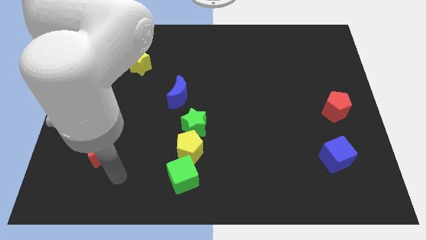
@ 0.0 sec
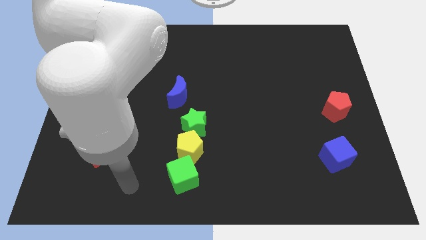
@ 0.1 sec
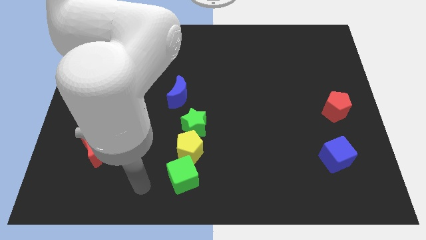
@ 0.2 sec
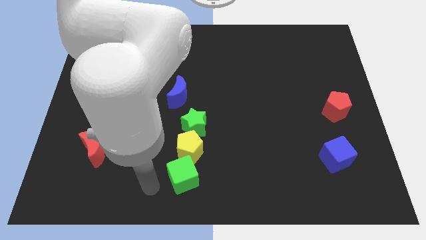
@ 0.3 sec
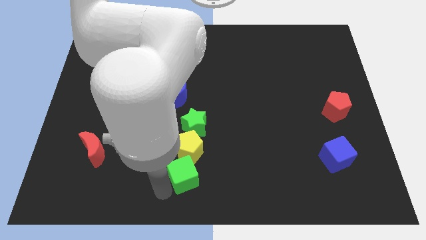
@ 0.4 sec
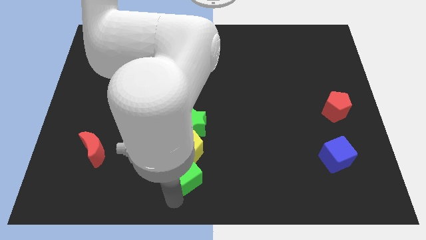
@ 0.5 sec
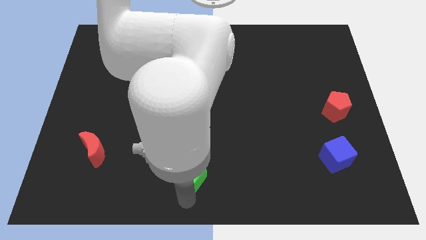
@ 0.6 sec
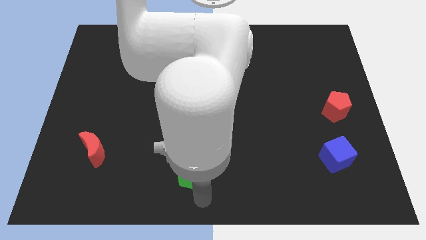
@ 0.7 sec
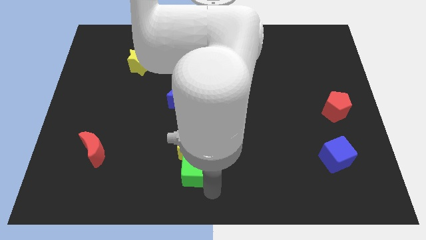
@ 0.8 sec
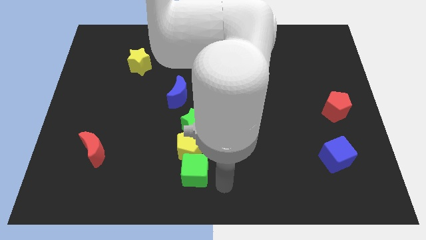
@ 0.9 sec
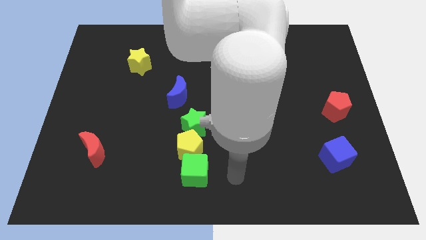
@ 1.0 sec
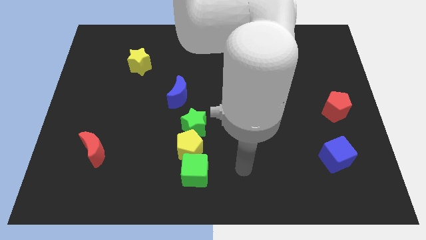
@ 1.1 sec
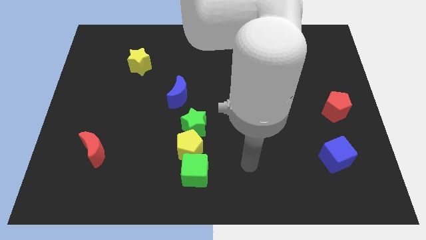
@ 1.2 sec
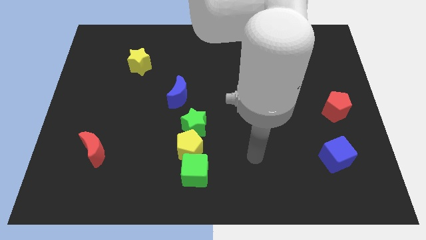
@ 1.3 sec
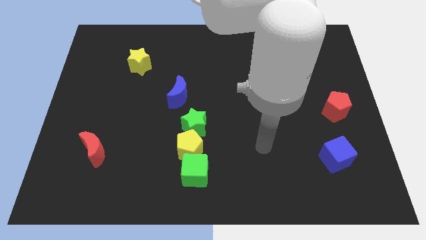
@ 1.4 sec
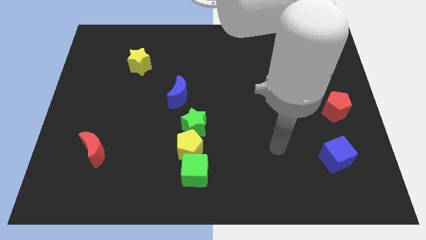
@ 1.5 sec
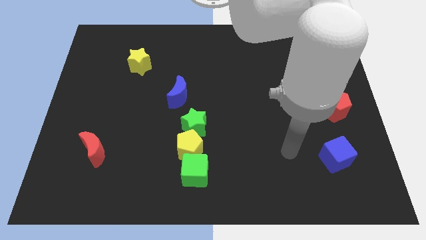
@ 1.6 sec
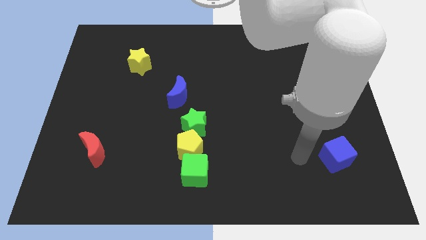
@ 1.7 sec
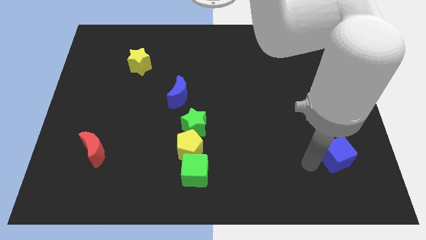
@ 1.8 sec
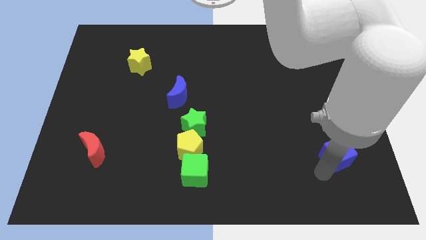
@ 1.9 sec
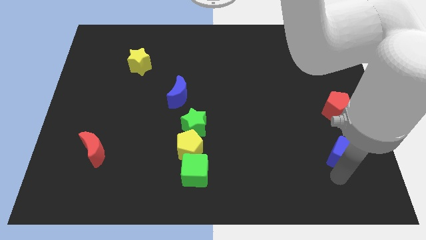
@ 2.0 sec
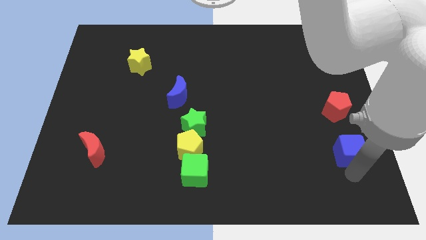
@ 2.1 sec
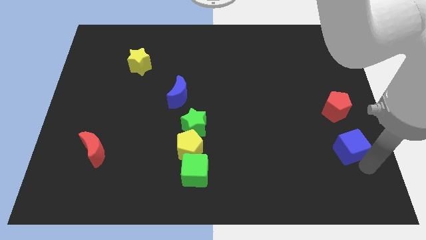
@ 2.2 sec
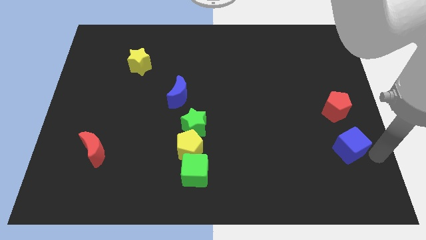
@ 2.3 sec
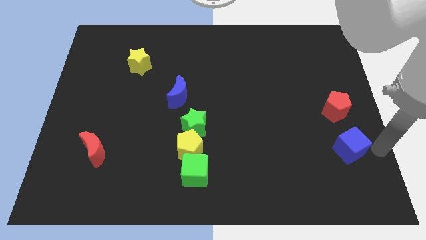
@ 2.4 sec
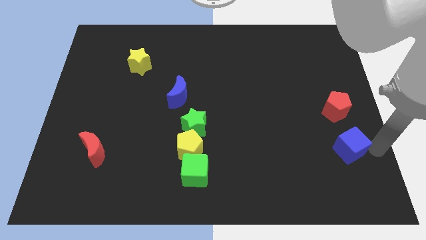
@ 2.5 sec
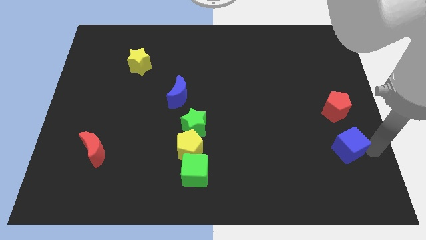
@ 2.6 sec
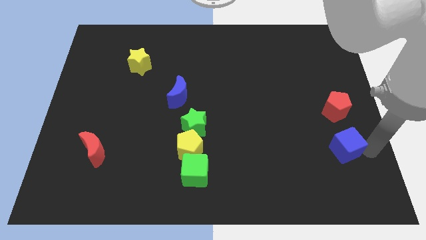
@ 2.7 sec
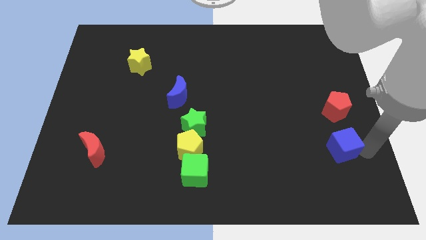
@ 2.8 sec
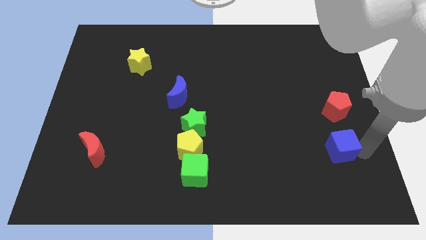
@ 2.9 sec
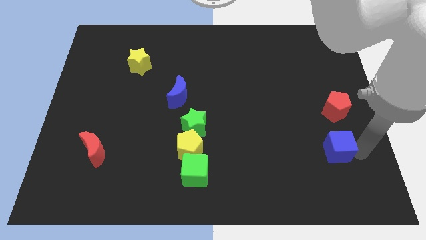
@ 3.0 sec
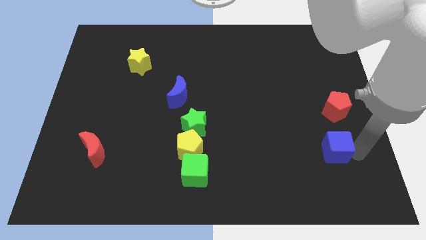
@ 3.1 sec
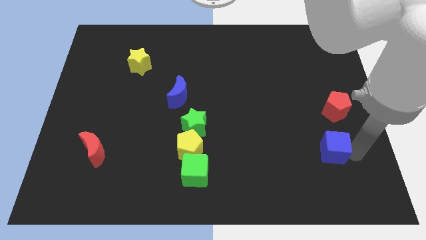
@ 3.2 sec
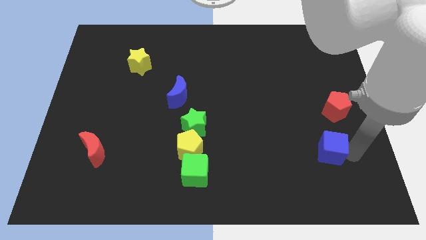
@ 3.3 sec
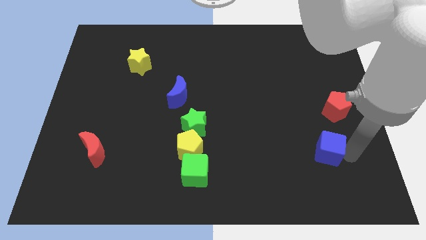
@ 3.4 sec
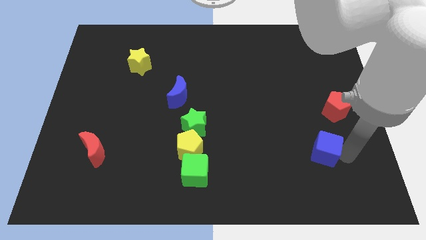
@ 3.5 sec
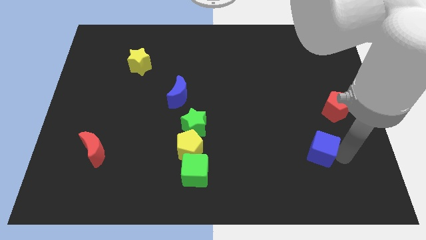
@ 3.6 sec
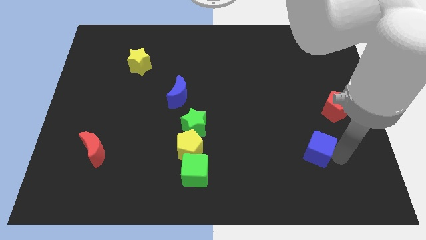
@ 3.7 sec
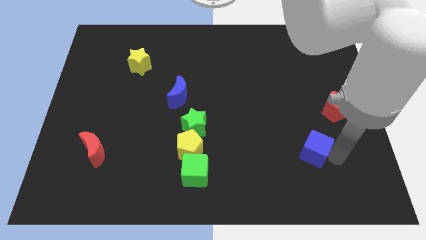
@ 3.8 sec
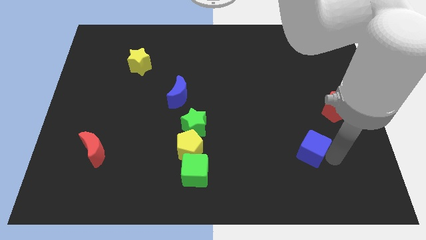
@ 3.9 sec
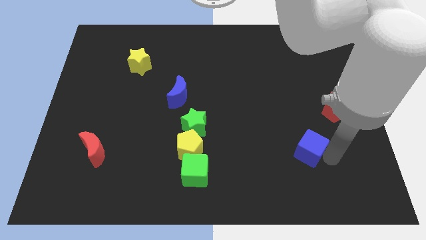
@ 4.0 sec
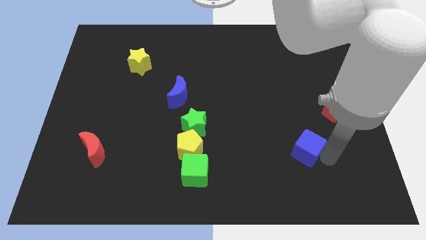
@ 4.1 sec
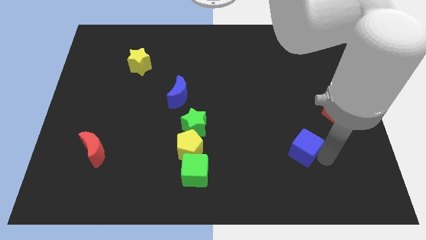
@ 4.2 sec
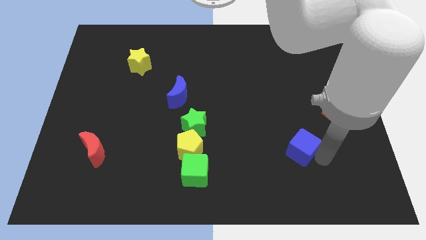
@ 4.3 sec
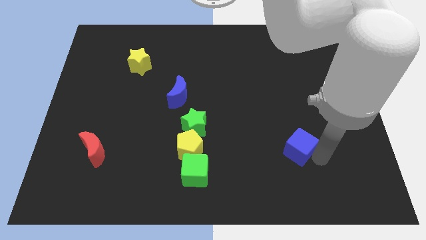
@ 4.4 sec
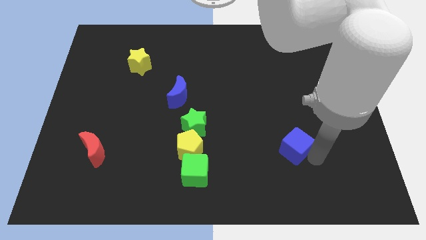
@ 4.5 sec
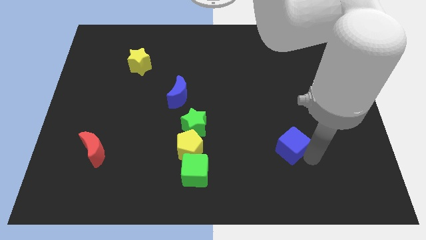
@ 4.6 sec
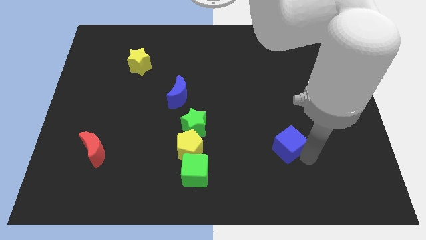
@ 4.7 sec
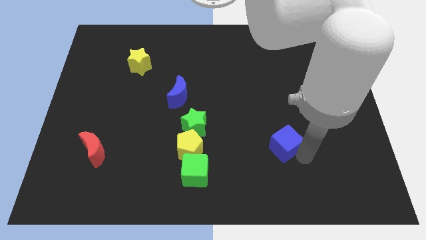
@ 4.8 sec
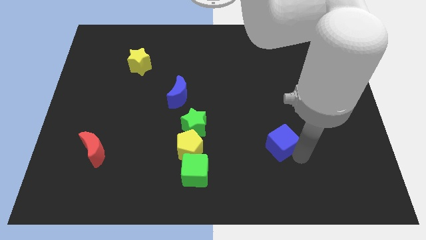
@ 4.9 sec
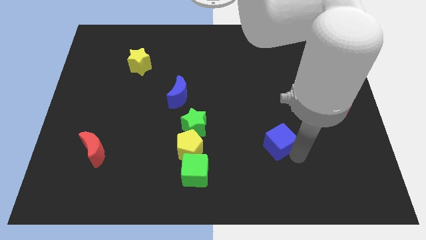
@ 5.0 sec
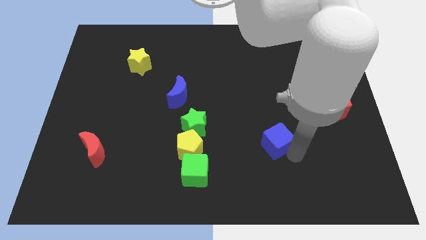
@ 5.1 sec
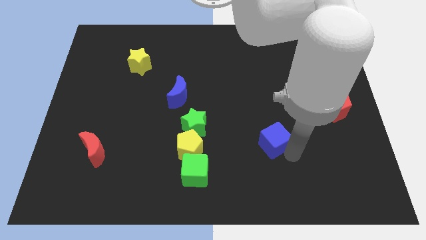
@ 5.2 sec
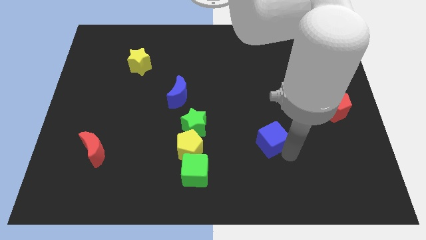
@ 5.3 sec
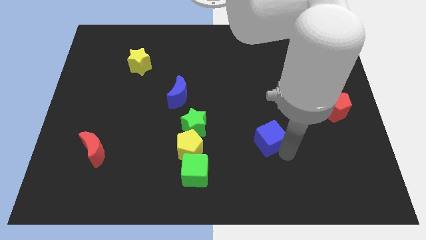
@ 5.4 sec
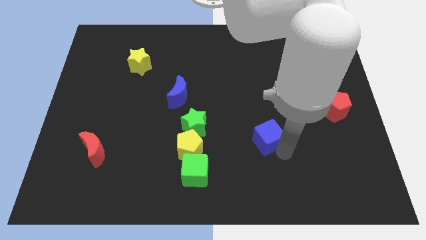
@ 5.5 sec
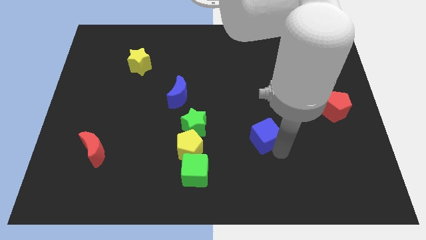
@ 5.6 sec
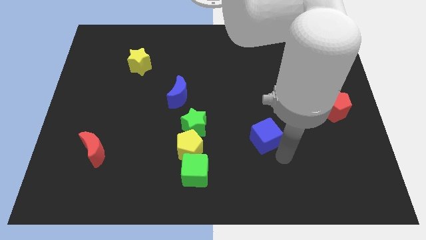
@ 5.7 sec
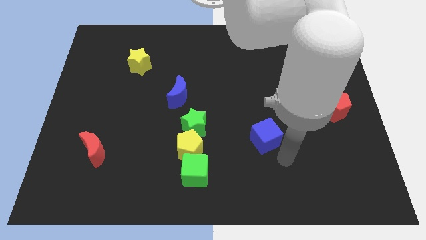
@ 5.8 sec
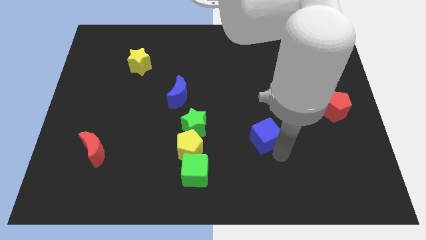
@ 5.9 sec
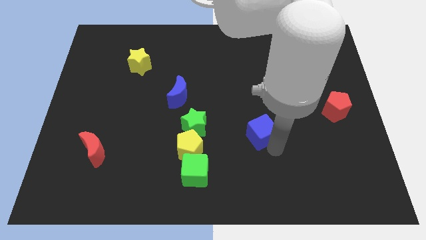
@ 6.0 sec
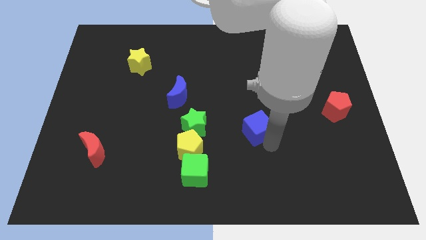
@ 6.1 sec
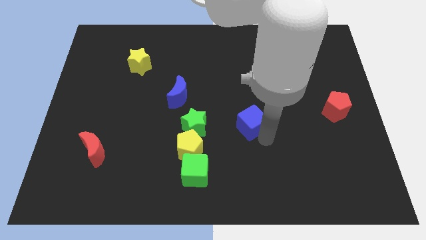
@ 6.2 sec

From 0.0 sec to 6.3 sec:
slide the blue cube to the center of the board

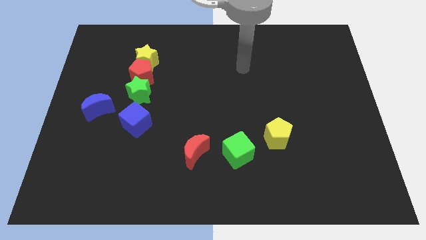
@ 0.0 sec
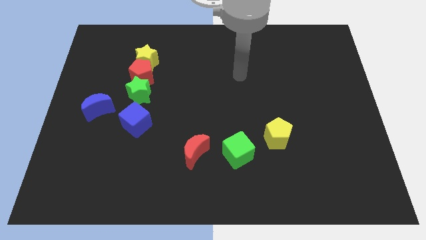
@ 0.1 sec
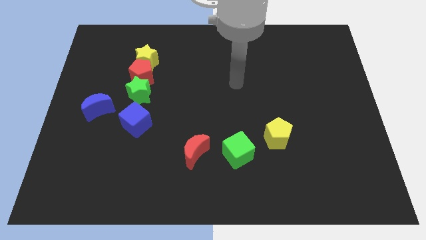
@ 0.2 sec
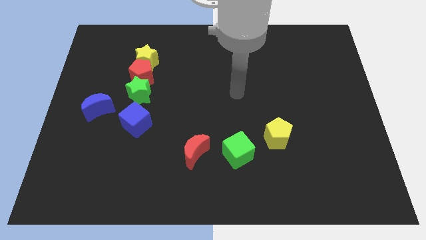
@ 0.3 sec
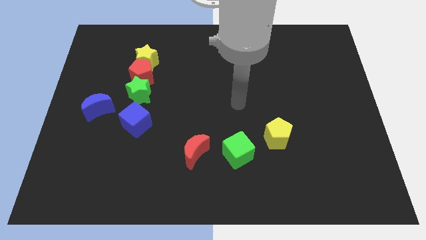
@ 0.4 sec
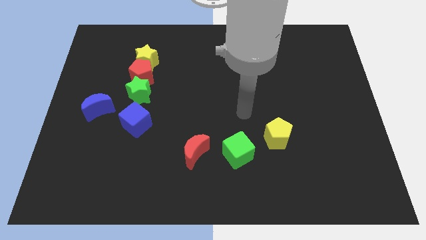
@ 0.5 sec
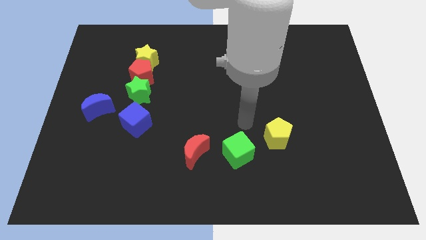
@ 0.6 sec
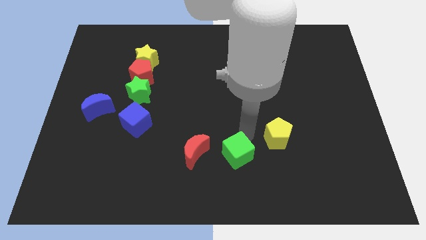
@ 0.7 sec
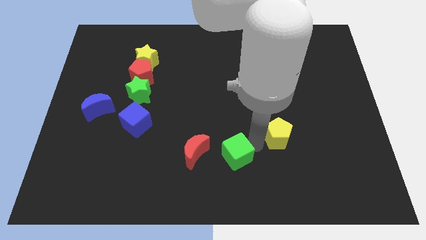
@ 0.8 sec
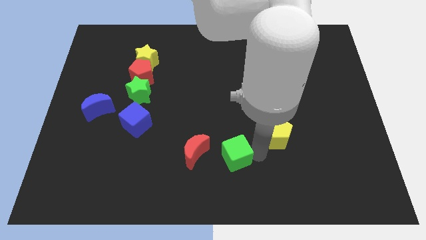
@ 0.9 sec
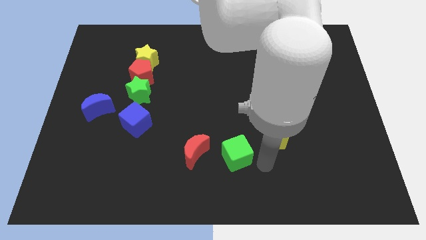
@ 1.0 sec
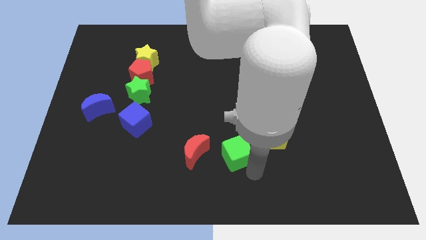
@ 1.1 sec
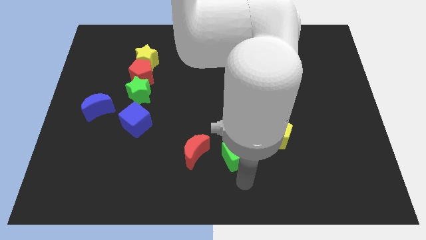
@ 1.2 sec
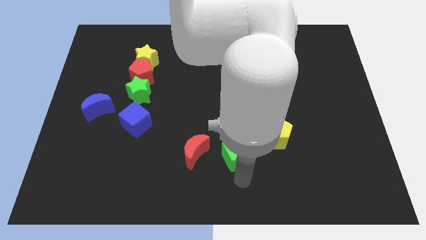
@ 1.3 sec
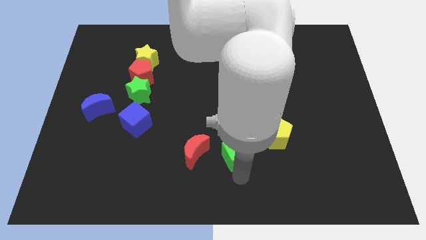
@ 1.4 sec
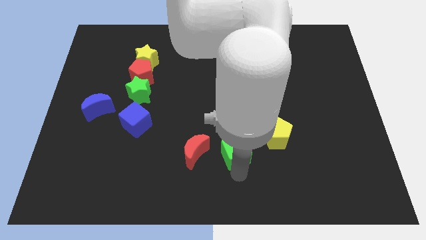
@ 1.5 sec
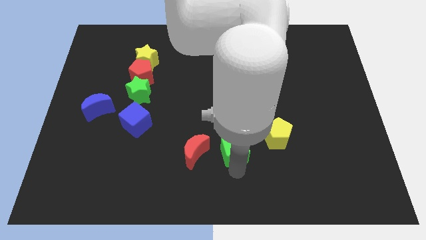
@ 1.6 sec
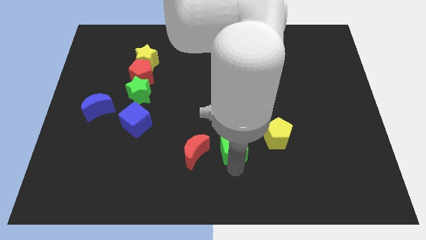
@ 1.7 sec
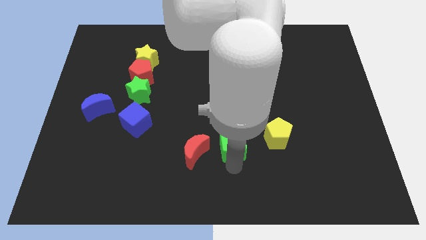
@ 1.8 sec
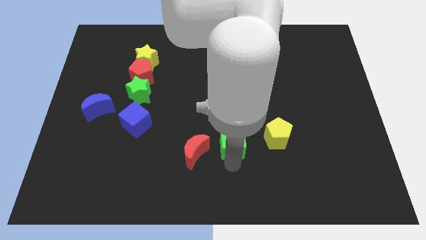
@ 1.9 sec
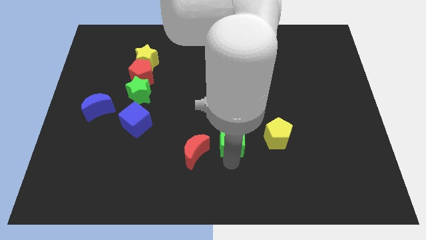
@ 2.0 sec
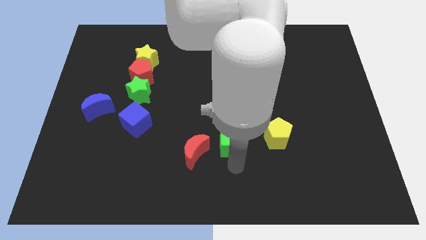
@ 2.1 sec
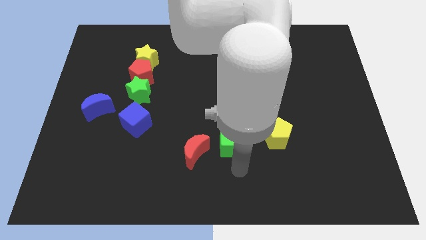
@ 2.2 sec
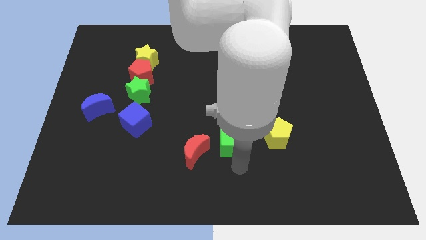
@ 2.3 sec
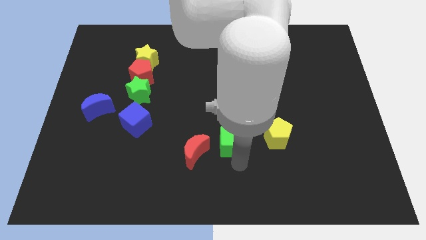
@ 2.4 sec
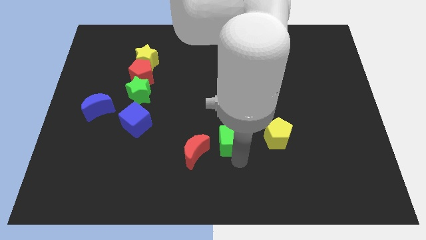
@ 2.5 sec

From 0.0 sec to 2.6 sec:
put the green cube to the middle of the board
